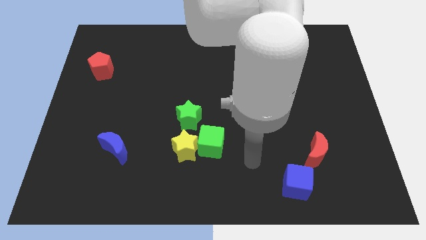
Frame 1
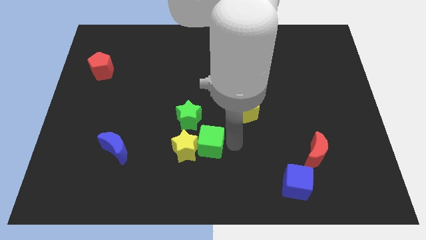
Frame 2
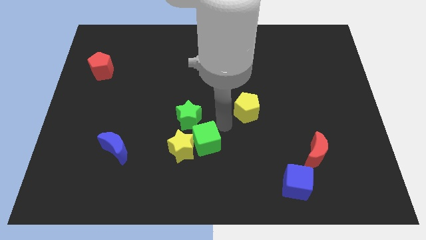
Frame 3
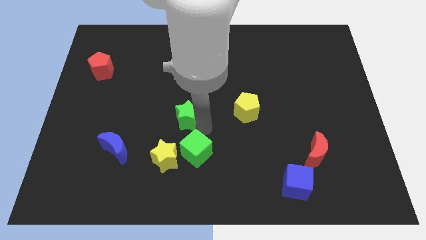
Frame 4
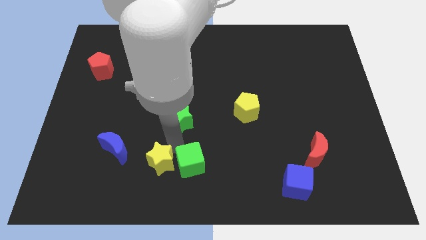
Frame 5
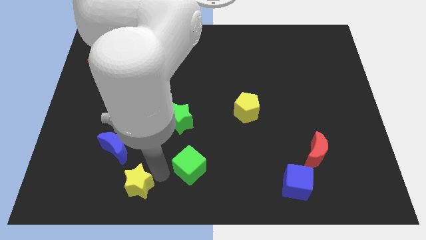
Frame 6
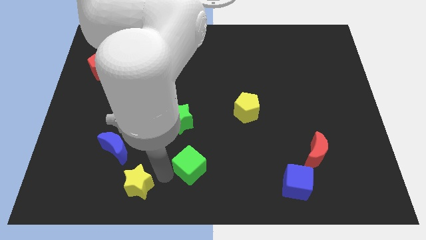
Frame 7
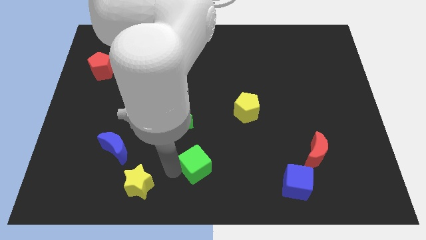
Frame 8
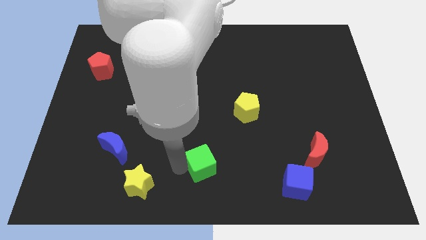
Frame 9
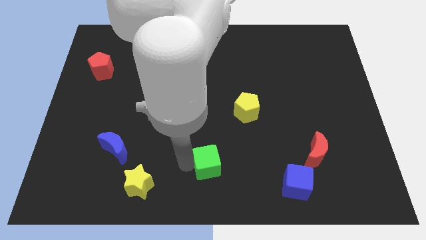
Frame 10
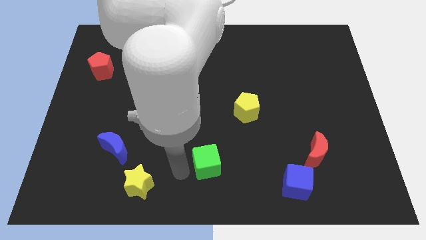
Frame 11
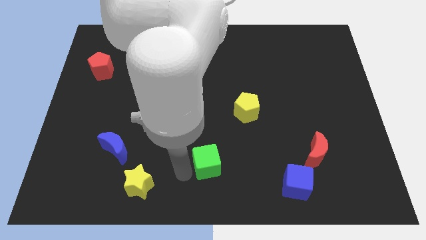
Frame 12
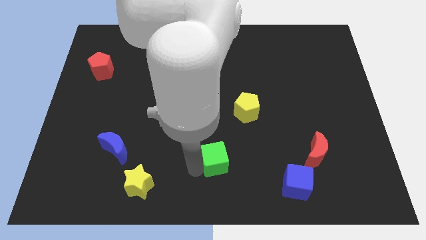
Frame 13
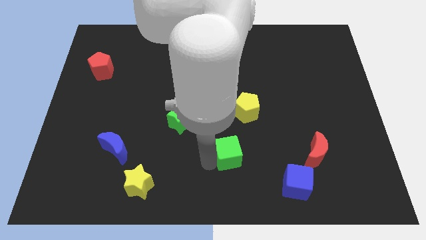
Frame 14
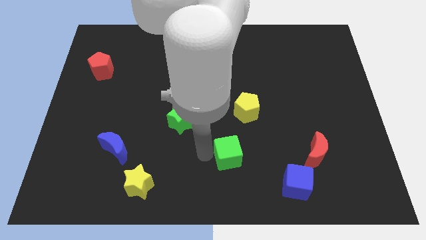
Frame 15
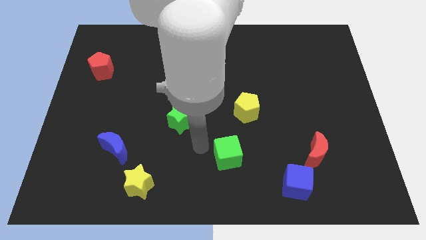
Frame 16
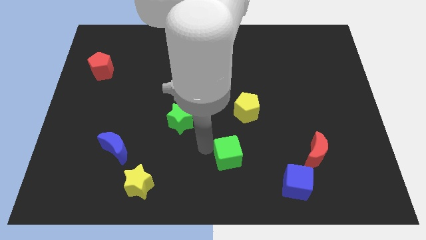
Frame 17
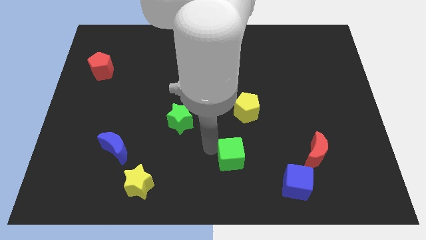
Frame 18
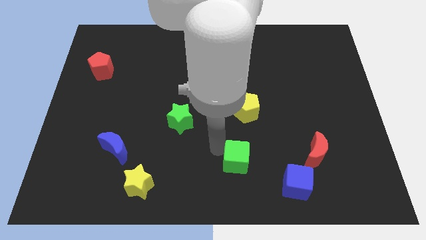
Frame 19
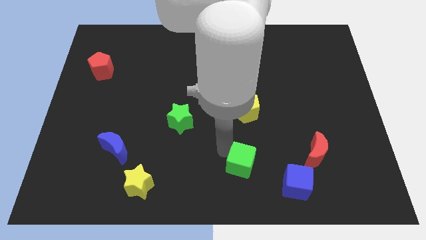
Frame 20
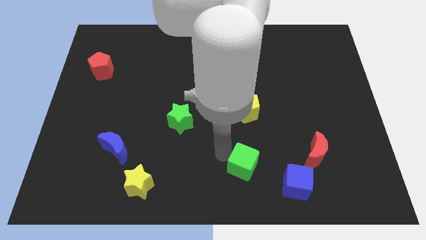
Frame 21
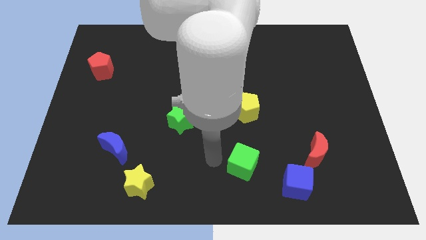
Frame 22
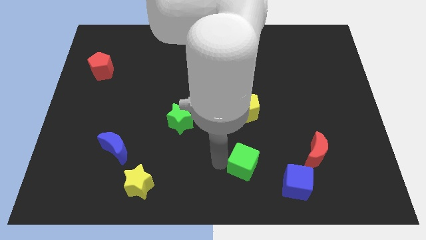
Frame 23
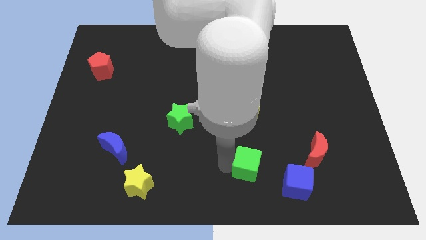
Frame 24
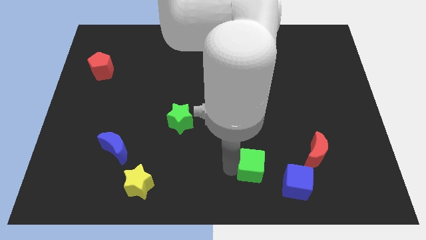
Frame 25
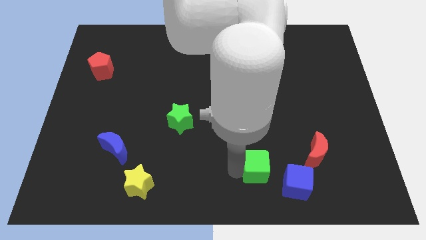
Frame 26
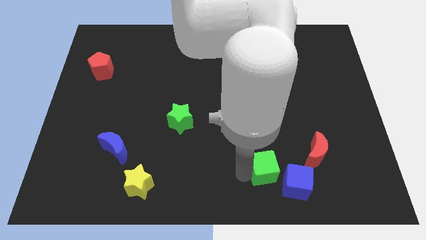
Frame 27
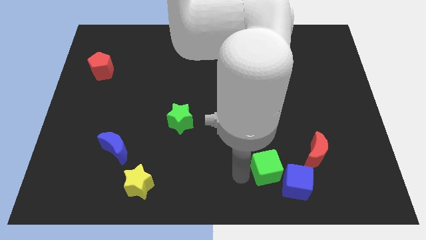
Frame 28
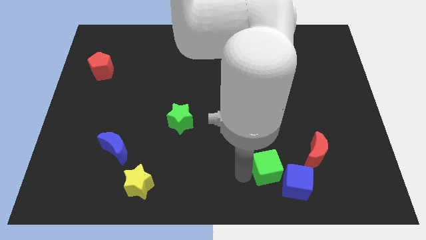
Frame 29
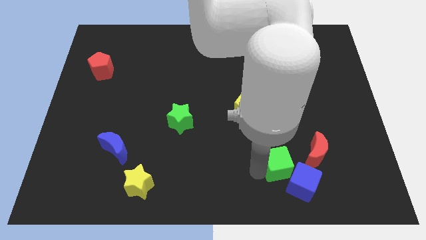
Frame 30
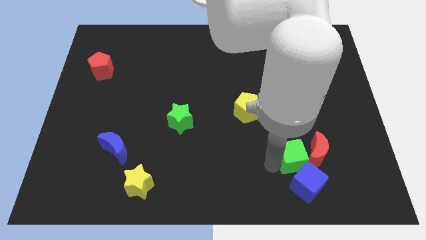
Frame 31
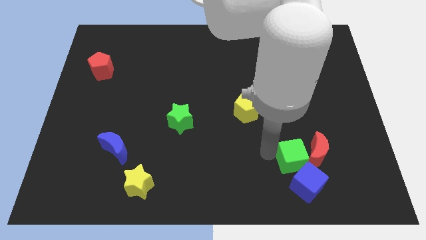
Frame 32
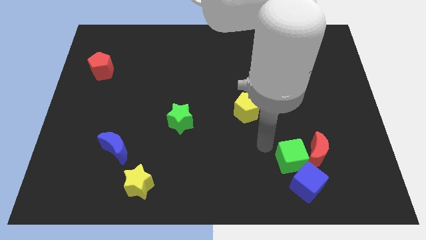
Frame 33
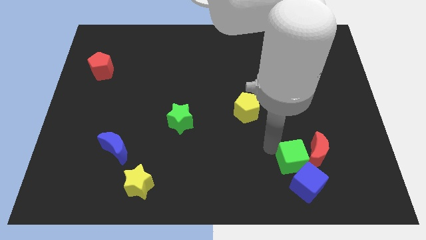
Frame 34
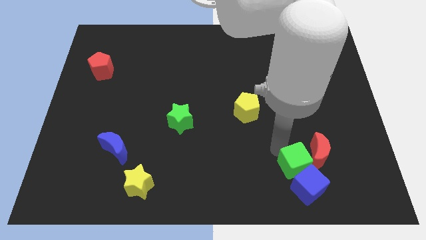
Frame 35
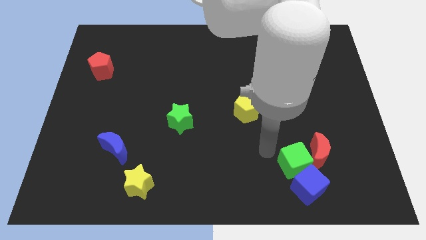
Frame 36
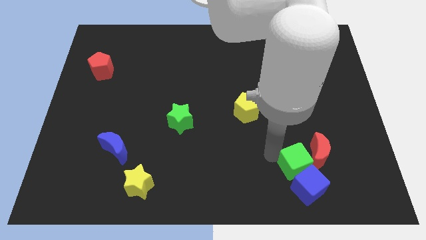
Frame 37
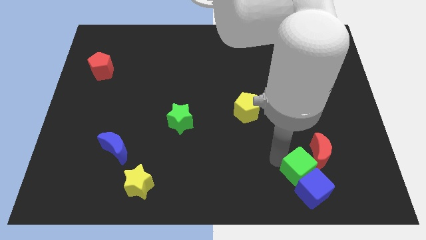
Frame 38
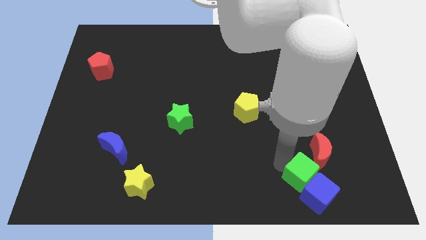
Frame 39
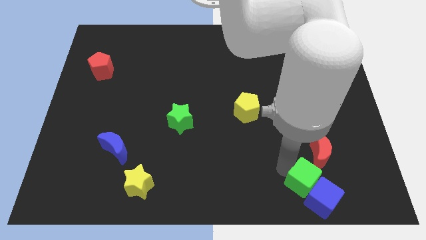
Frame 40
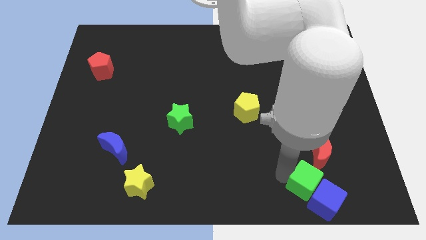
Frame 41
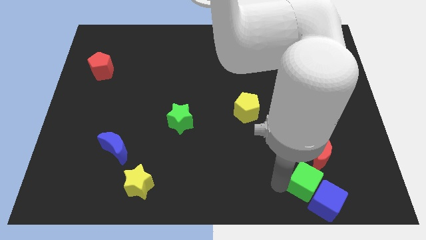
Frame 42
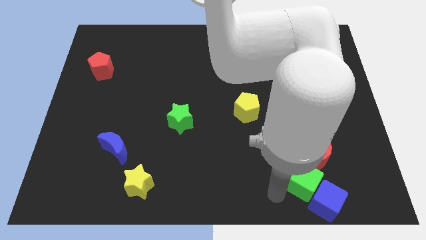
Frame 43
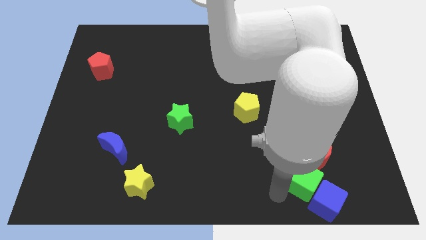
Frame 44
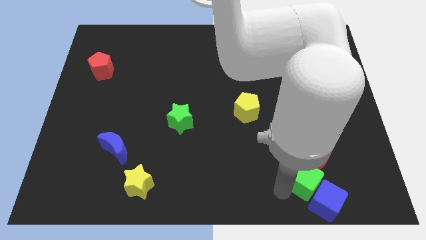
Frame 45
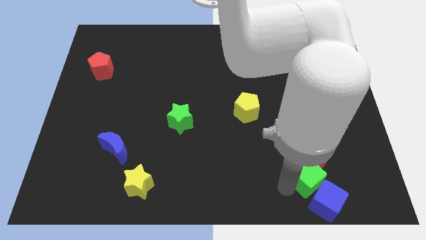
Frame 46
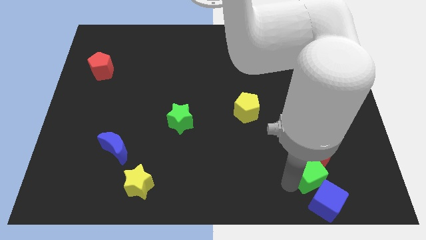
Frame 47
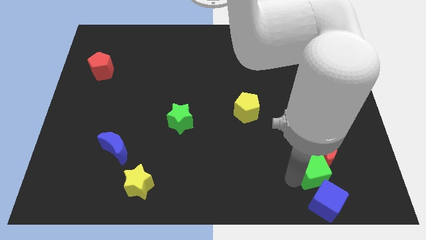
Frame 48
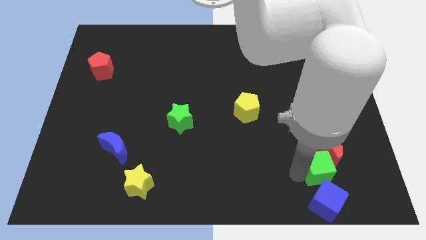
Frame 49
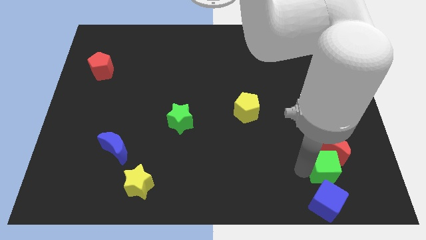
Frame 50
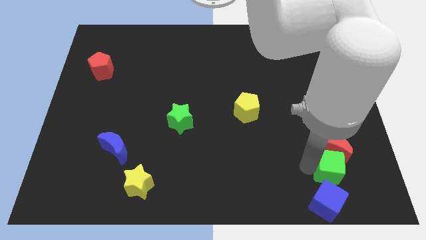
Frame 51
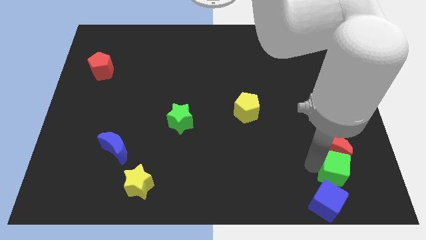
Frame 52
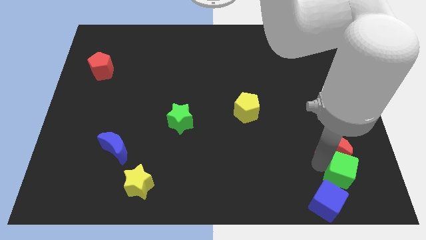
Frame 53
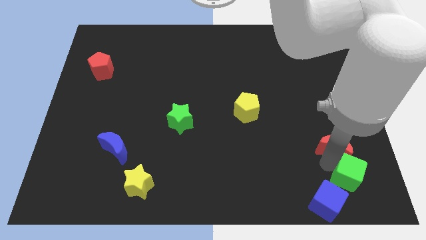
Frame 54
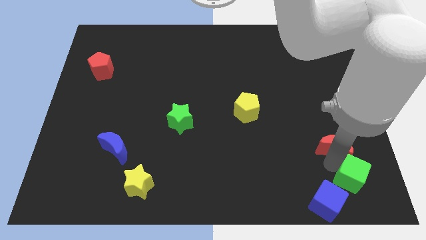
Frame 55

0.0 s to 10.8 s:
slide the green cube to the lower right corner

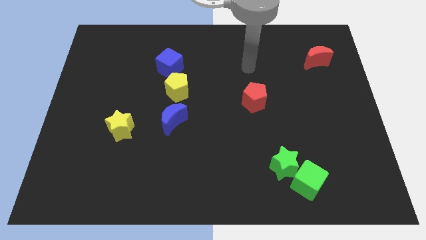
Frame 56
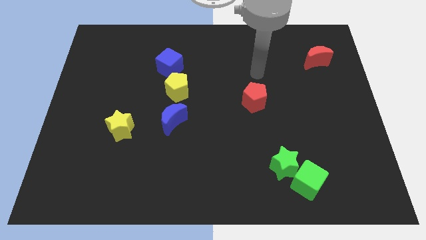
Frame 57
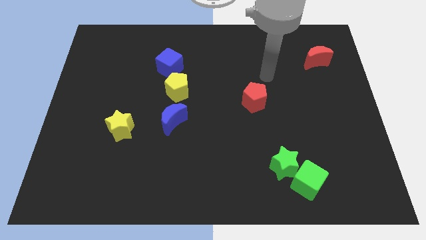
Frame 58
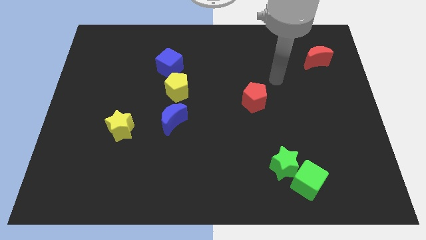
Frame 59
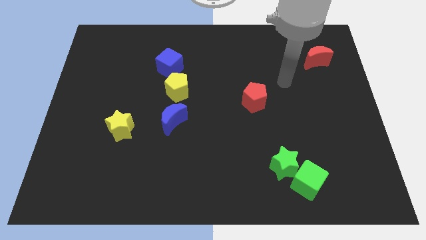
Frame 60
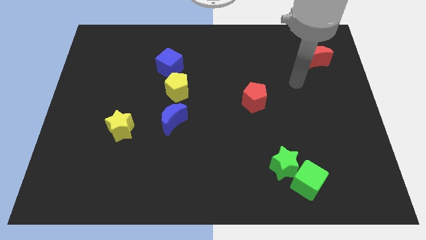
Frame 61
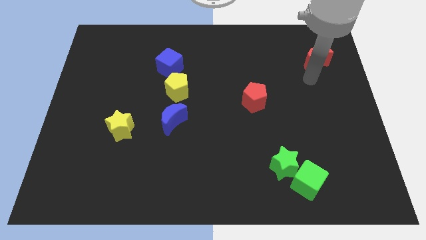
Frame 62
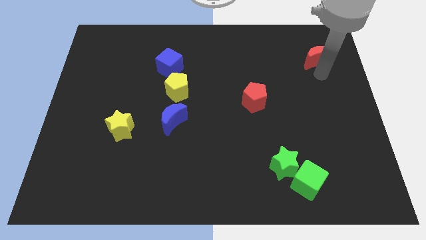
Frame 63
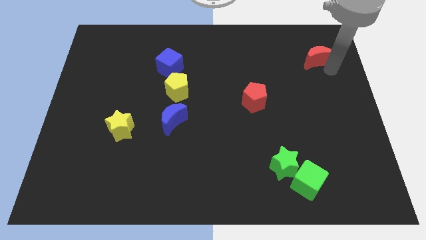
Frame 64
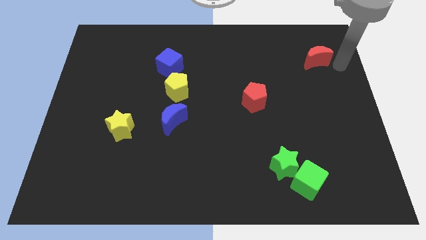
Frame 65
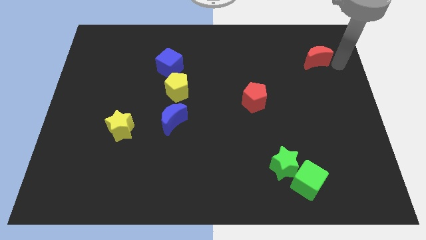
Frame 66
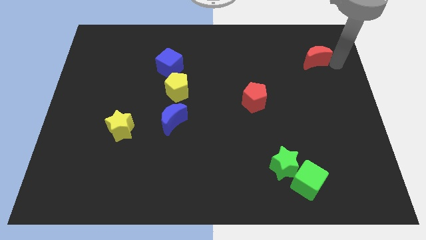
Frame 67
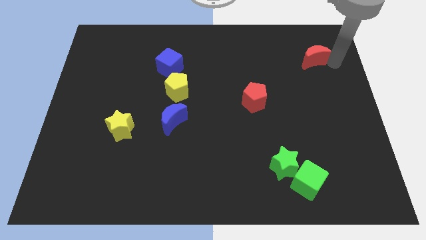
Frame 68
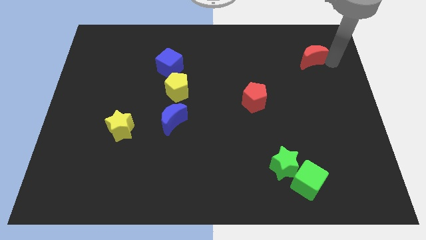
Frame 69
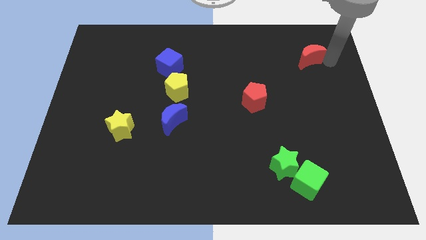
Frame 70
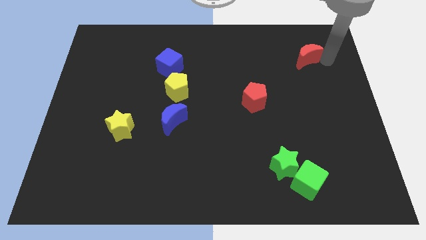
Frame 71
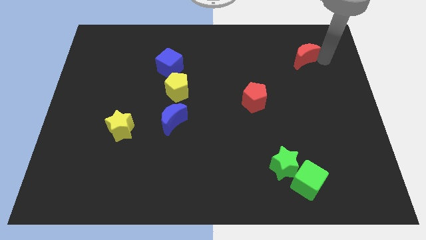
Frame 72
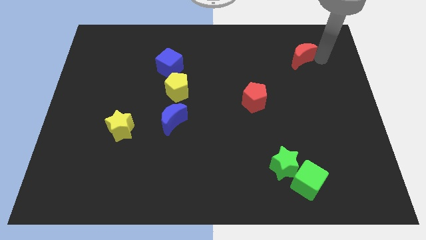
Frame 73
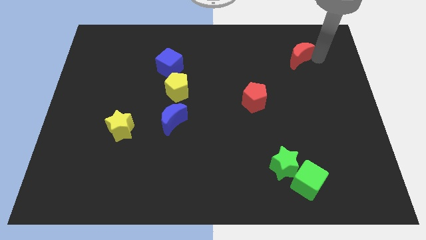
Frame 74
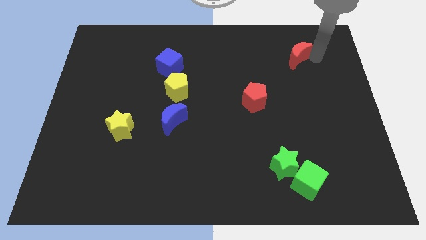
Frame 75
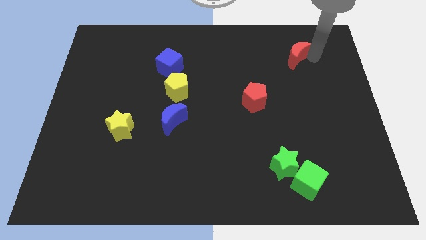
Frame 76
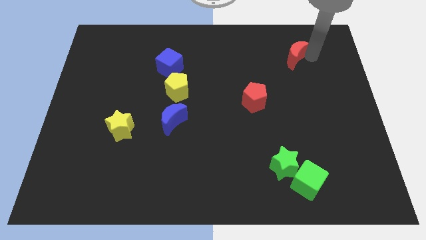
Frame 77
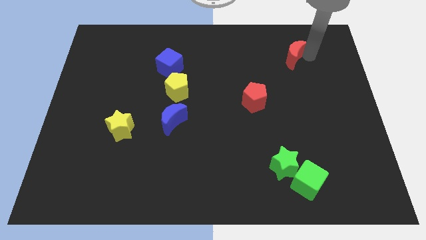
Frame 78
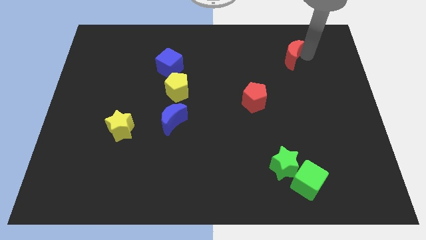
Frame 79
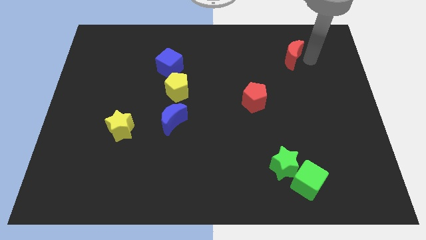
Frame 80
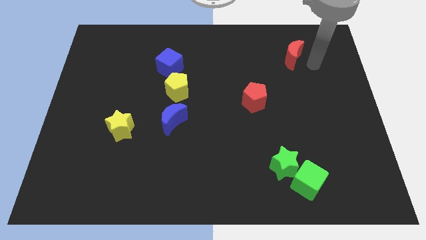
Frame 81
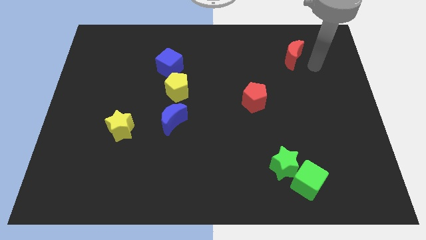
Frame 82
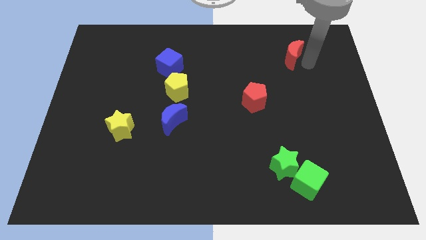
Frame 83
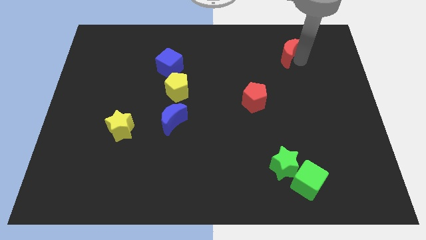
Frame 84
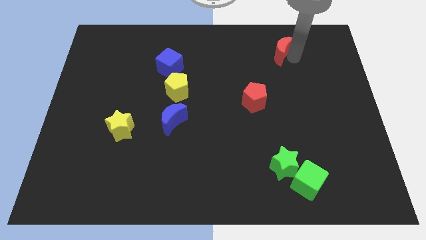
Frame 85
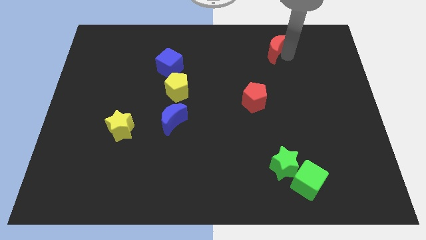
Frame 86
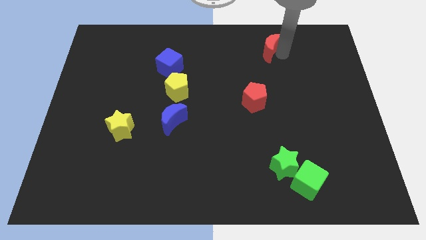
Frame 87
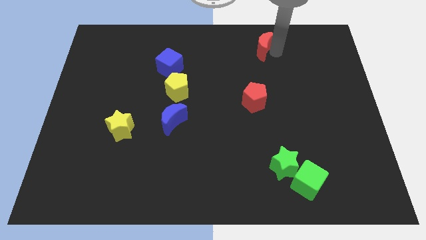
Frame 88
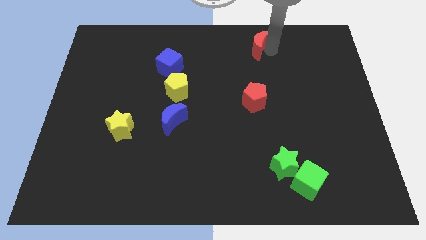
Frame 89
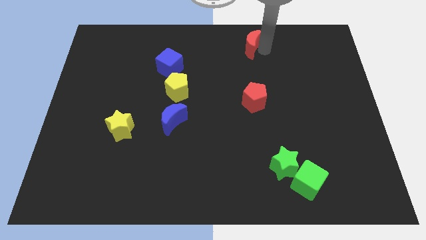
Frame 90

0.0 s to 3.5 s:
push the red moon to the top
